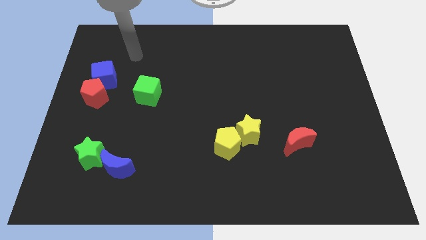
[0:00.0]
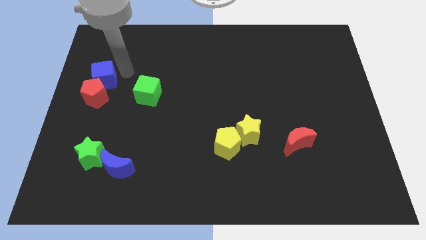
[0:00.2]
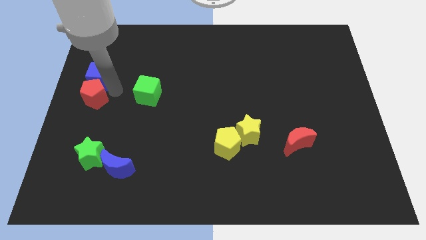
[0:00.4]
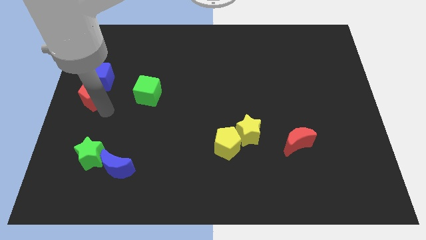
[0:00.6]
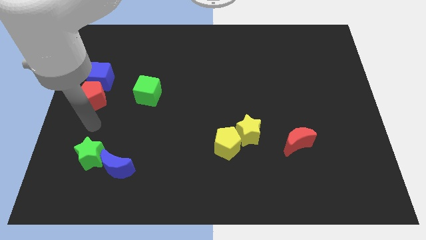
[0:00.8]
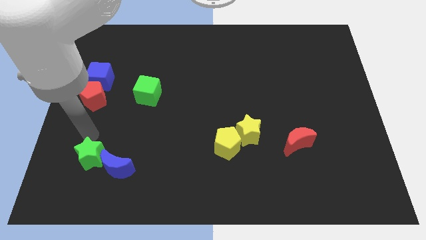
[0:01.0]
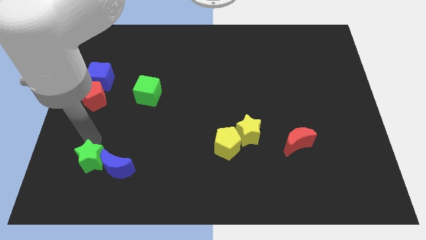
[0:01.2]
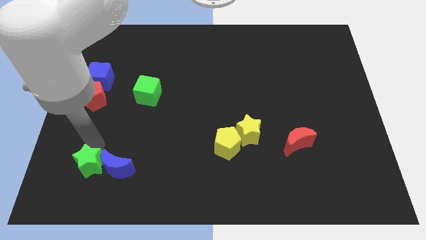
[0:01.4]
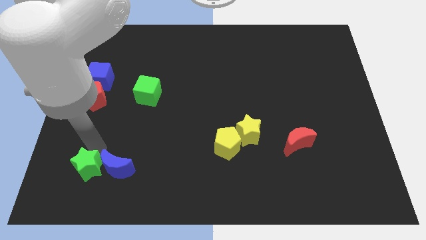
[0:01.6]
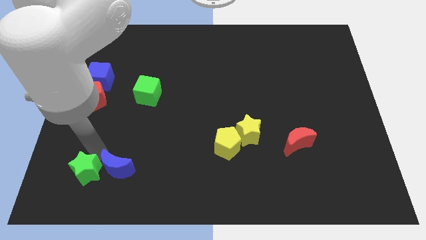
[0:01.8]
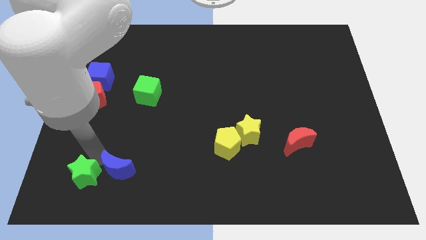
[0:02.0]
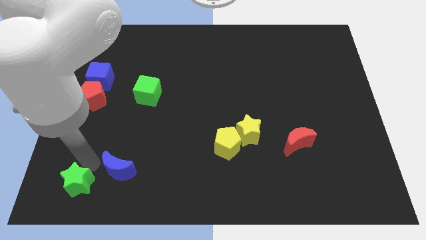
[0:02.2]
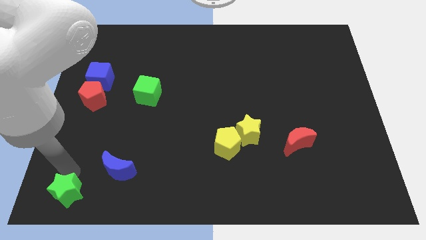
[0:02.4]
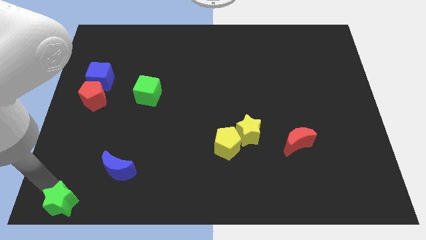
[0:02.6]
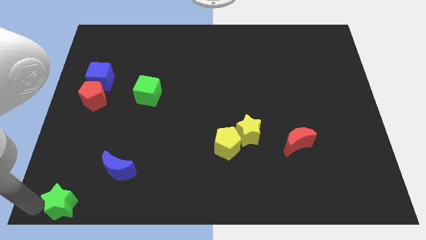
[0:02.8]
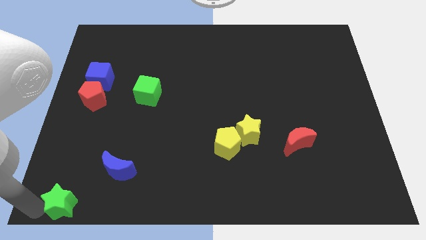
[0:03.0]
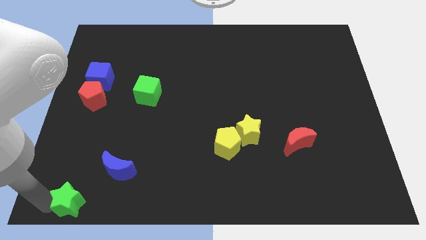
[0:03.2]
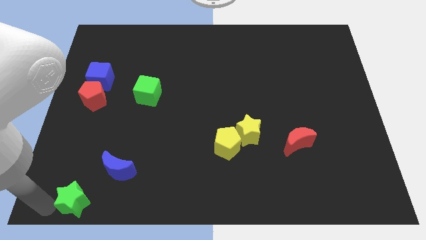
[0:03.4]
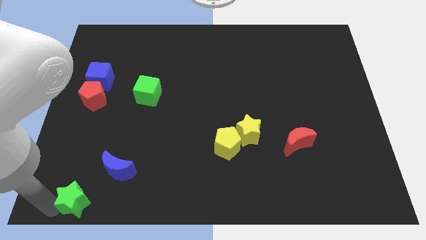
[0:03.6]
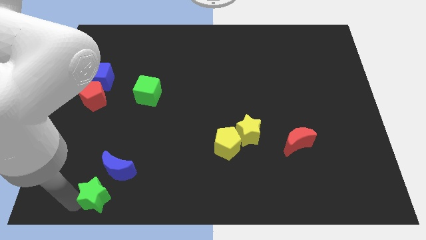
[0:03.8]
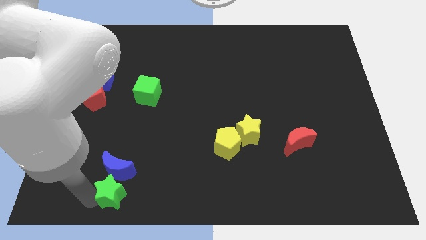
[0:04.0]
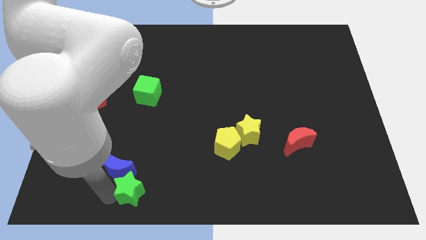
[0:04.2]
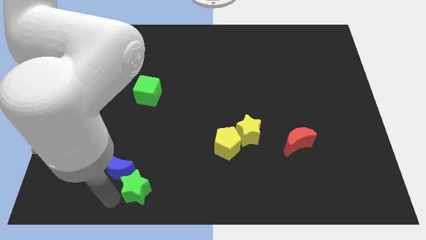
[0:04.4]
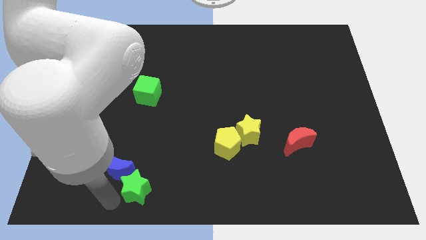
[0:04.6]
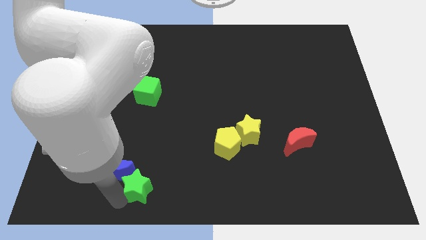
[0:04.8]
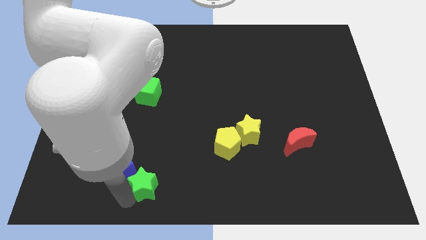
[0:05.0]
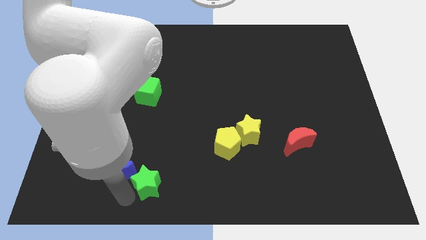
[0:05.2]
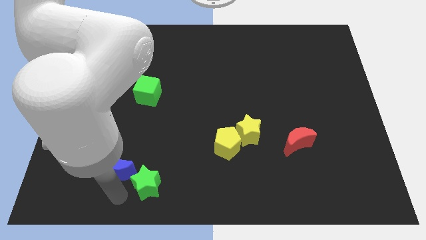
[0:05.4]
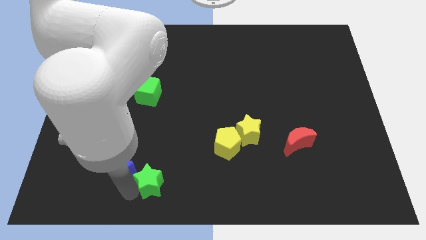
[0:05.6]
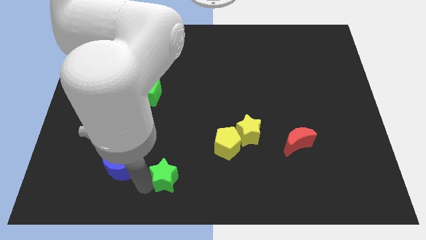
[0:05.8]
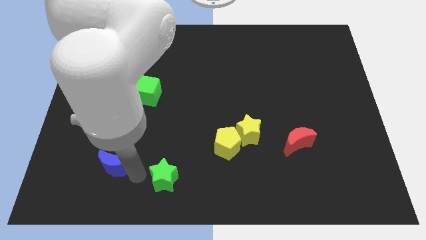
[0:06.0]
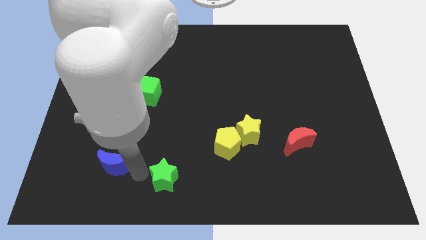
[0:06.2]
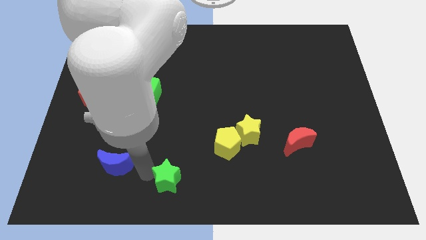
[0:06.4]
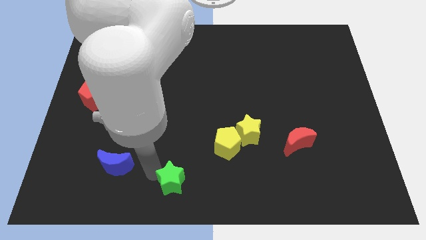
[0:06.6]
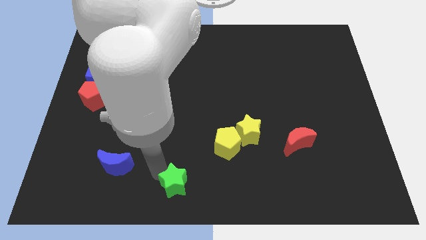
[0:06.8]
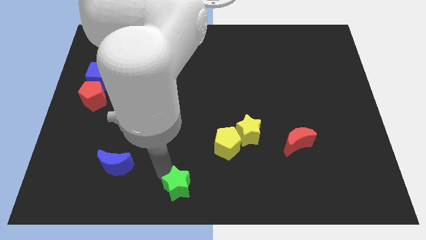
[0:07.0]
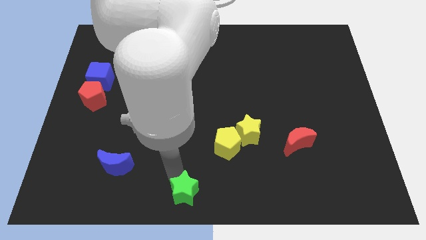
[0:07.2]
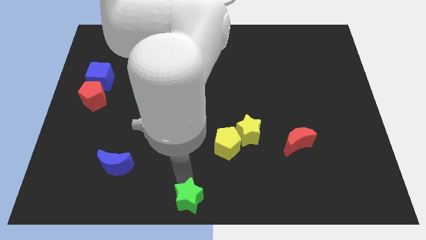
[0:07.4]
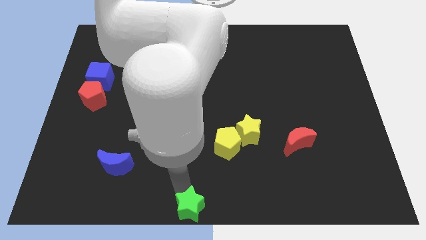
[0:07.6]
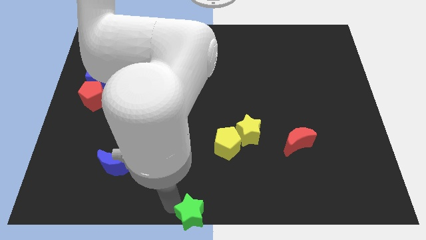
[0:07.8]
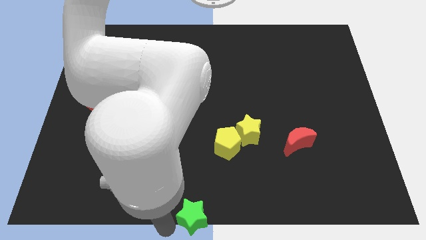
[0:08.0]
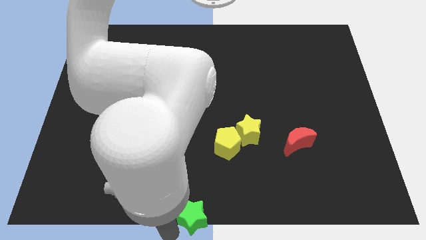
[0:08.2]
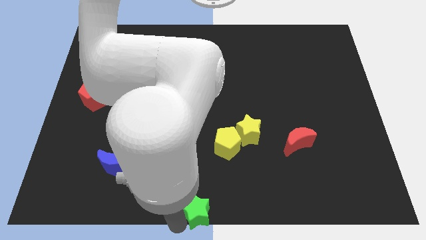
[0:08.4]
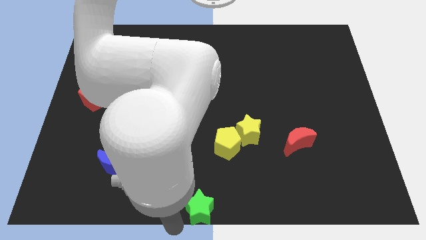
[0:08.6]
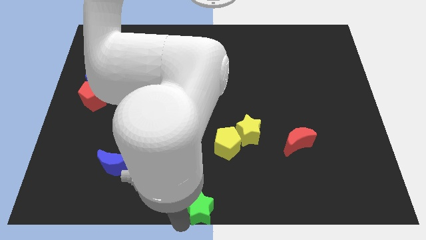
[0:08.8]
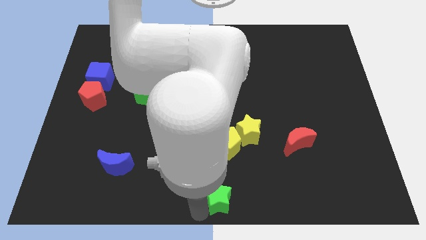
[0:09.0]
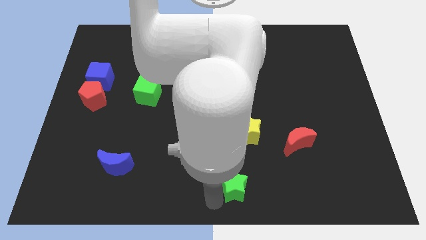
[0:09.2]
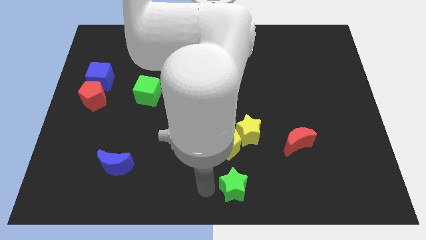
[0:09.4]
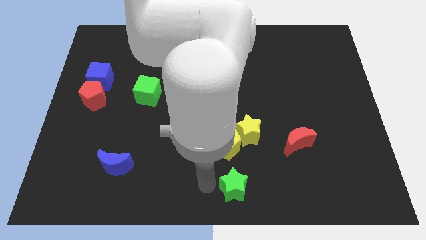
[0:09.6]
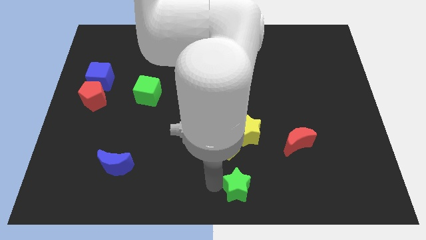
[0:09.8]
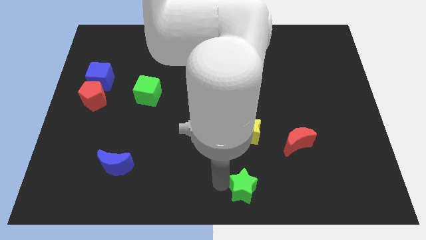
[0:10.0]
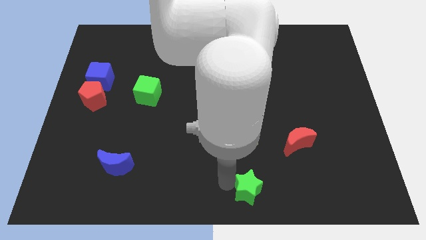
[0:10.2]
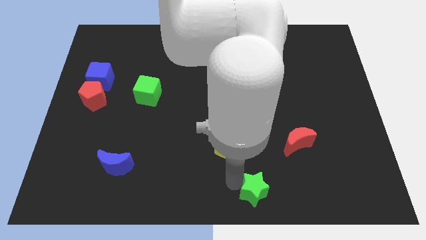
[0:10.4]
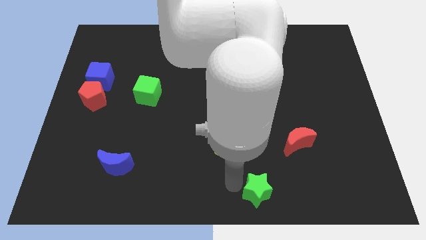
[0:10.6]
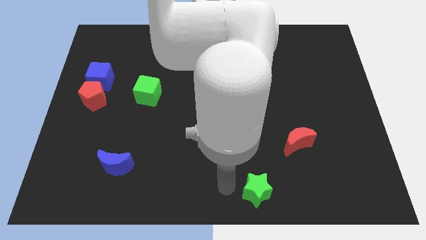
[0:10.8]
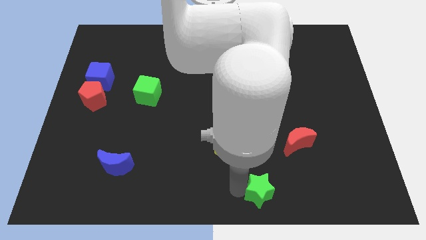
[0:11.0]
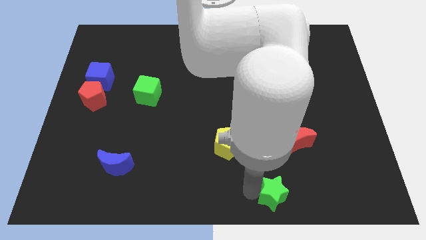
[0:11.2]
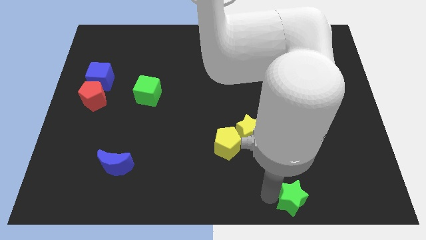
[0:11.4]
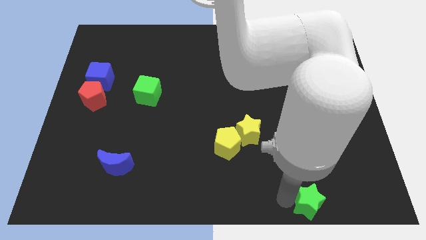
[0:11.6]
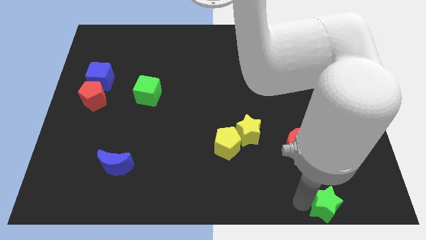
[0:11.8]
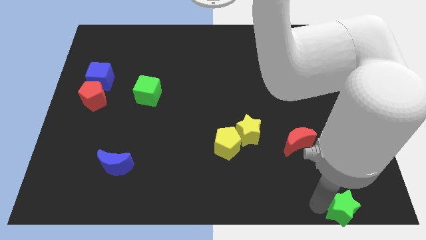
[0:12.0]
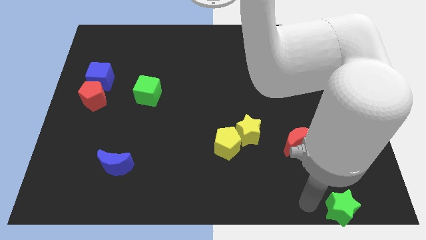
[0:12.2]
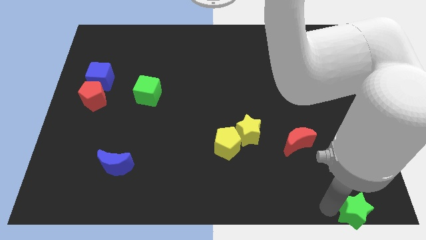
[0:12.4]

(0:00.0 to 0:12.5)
slide the green star to the bottom right of the board
